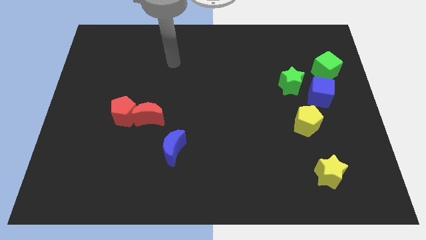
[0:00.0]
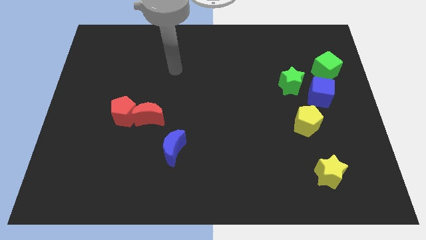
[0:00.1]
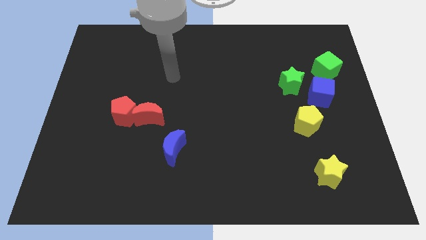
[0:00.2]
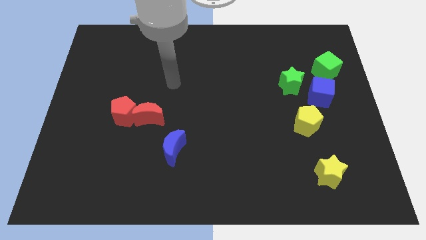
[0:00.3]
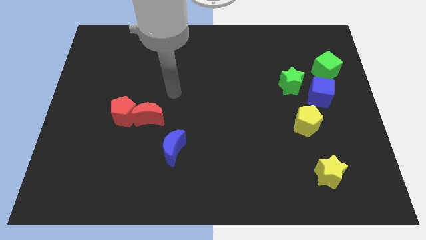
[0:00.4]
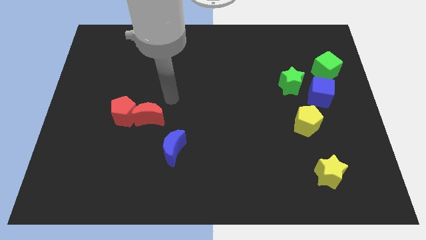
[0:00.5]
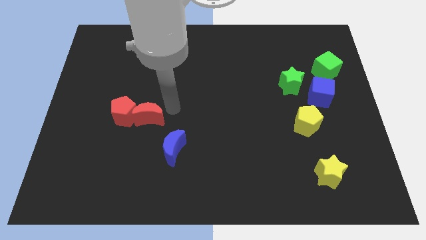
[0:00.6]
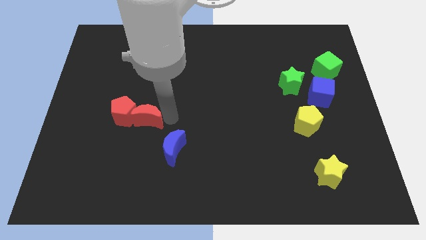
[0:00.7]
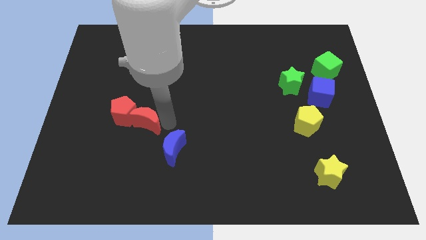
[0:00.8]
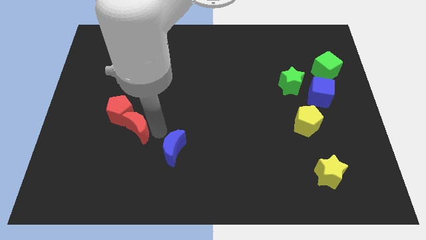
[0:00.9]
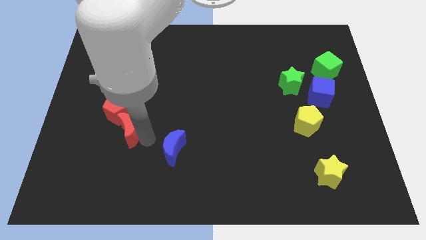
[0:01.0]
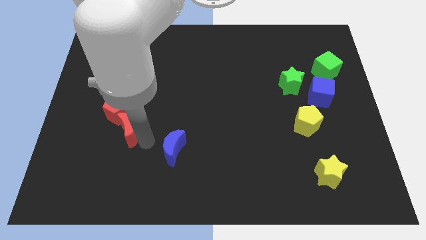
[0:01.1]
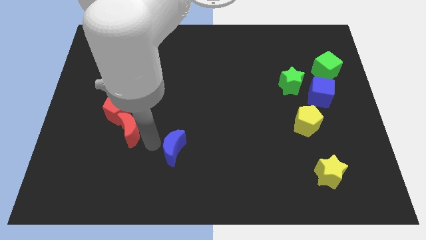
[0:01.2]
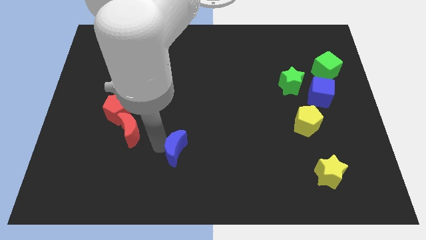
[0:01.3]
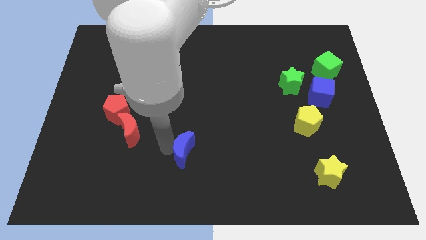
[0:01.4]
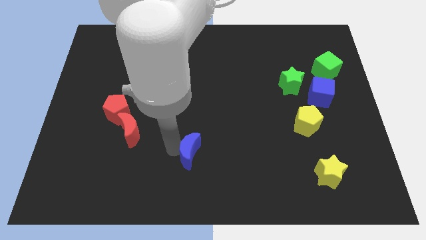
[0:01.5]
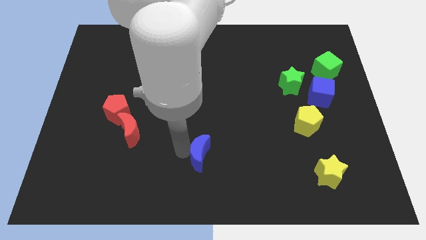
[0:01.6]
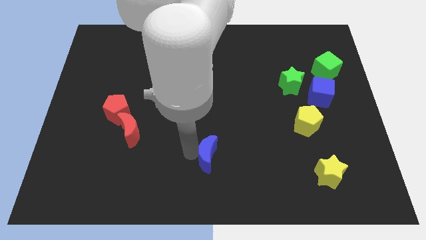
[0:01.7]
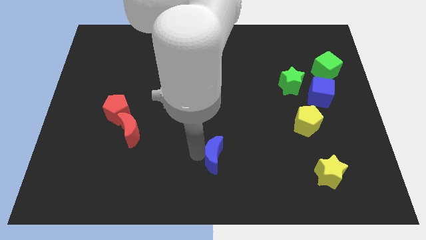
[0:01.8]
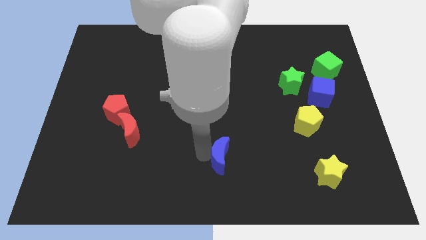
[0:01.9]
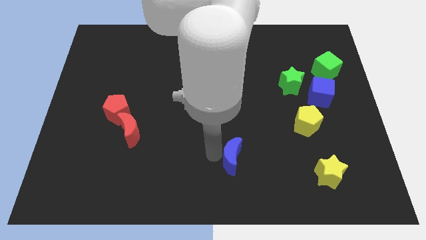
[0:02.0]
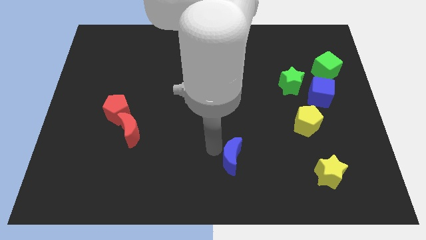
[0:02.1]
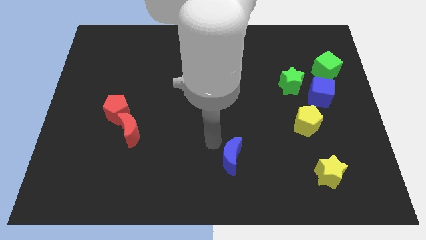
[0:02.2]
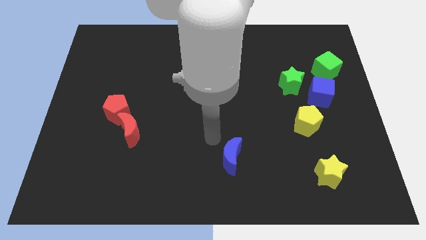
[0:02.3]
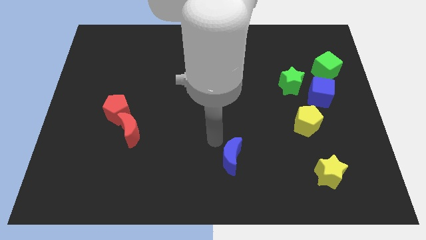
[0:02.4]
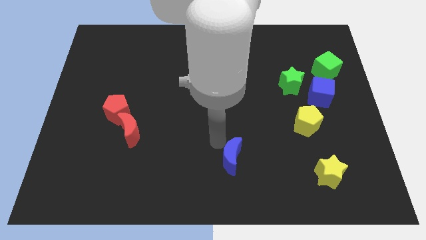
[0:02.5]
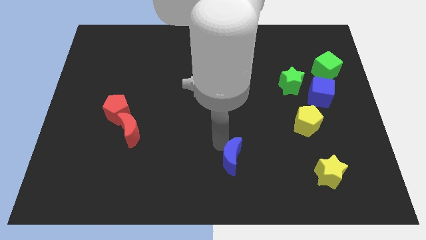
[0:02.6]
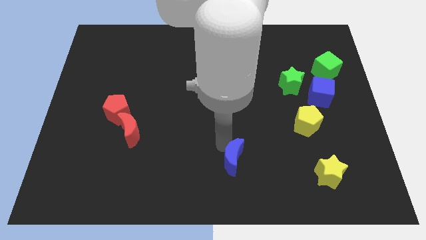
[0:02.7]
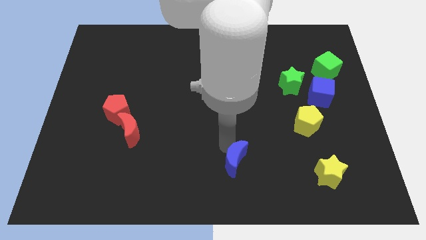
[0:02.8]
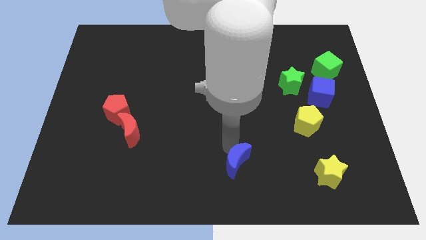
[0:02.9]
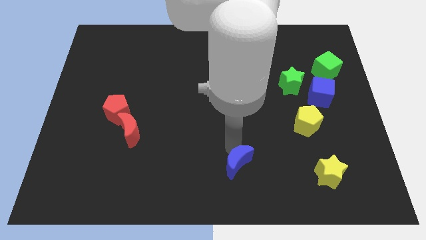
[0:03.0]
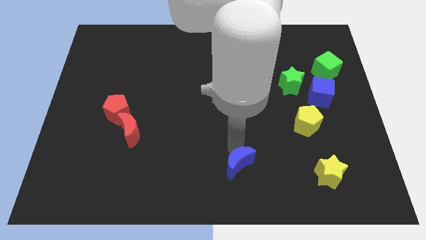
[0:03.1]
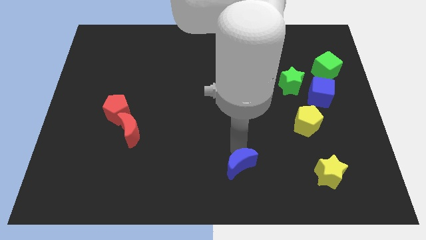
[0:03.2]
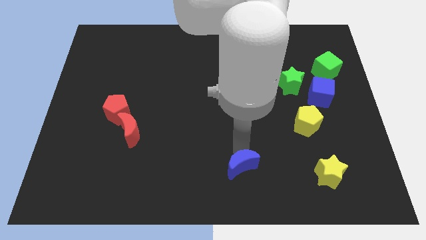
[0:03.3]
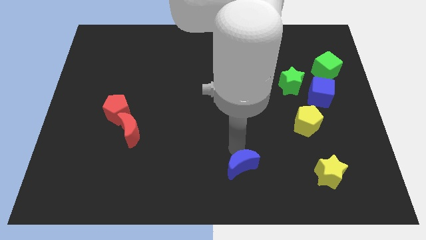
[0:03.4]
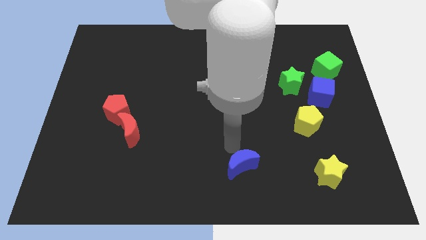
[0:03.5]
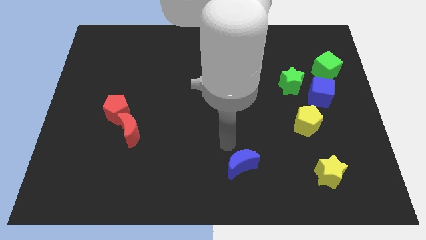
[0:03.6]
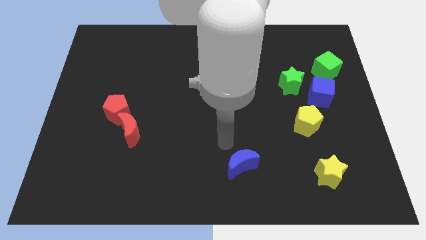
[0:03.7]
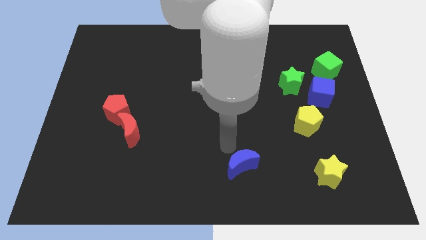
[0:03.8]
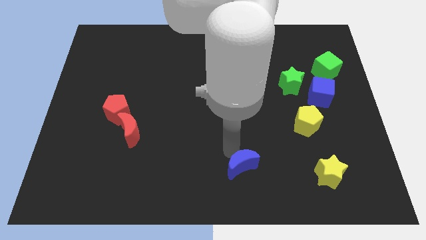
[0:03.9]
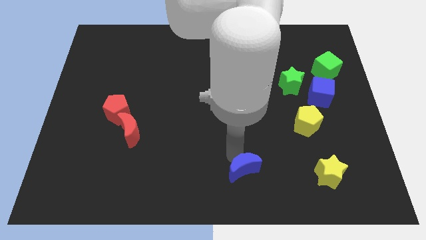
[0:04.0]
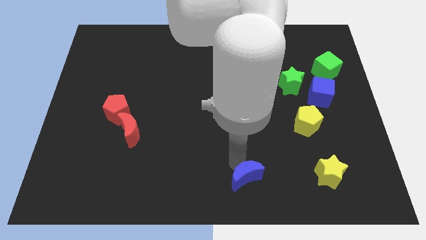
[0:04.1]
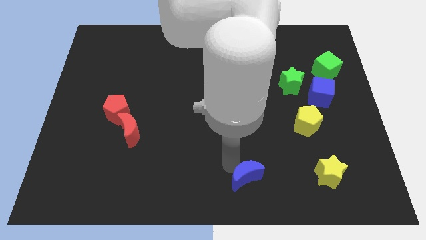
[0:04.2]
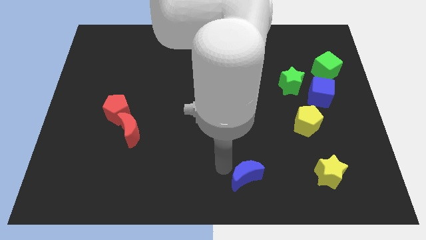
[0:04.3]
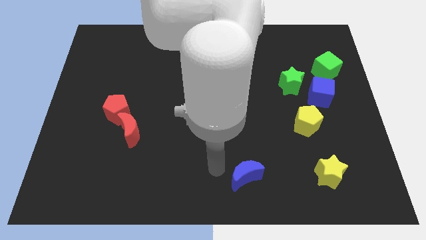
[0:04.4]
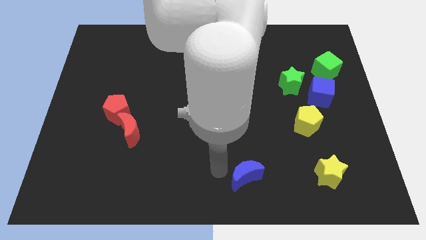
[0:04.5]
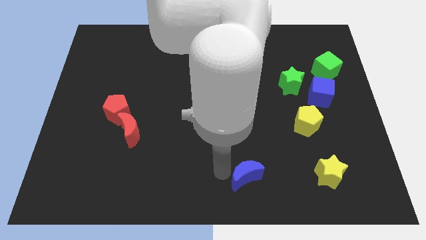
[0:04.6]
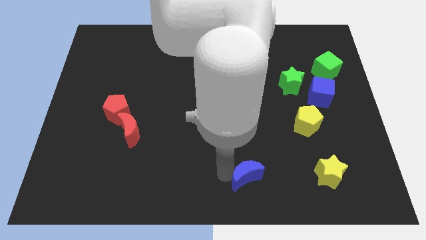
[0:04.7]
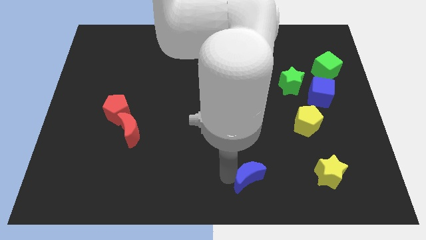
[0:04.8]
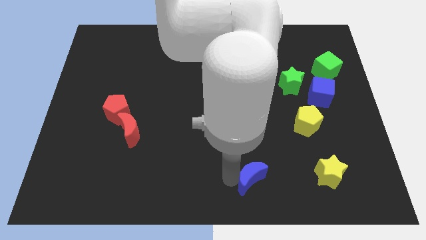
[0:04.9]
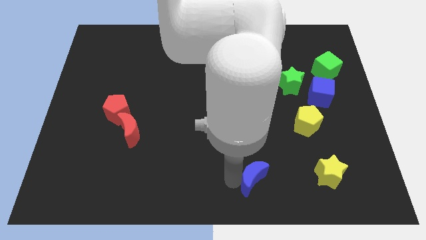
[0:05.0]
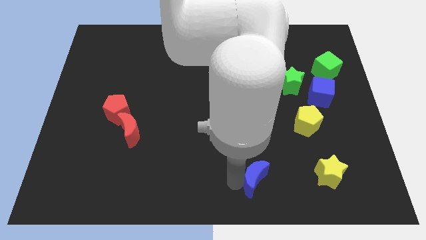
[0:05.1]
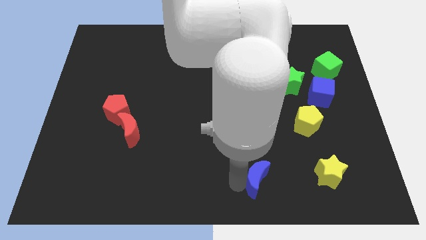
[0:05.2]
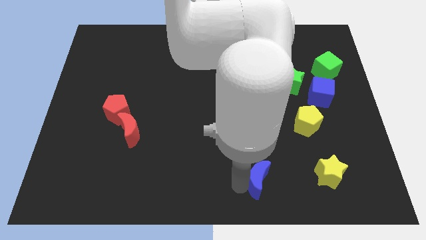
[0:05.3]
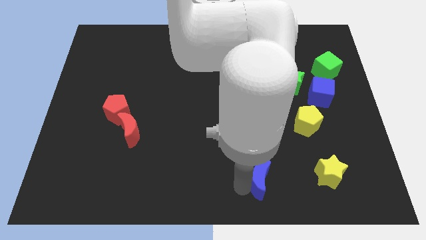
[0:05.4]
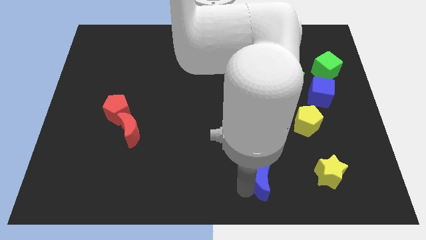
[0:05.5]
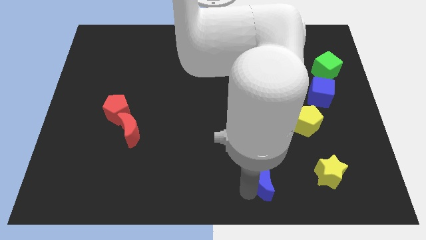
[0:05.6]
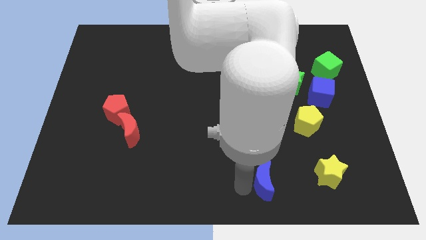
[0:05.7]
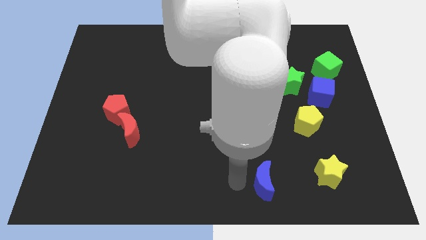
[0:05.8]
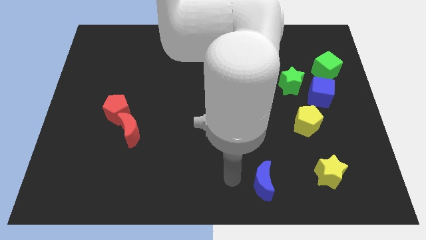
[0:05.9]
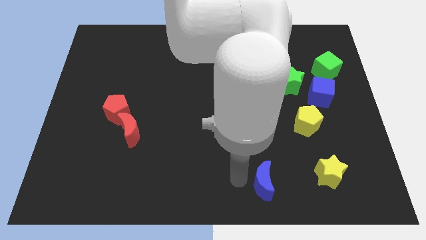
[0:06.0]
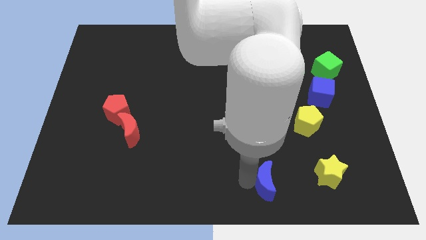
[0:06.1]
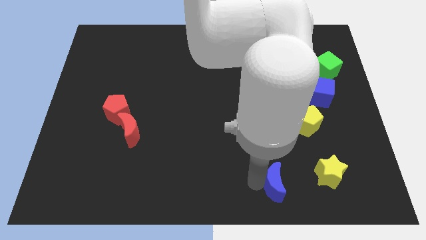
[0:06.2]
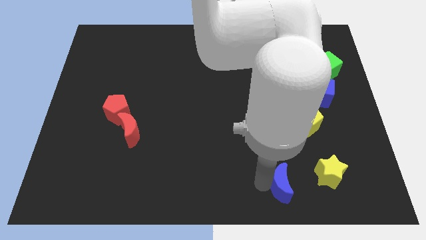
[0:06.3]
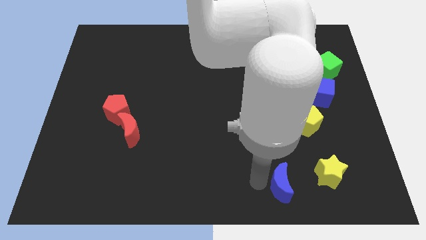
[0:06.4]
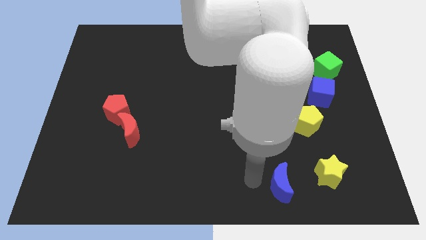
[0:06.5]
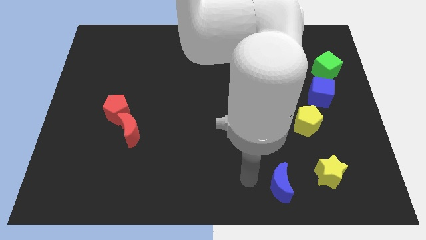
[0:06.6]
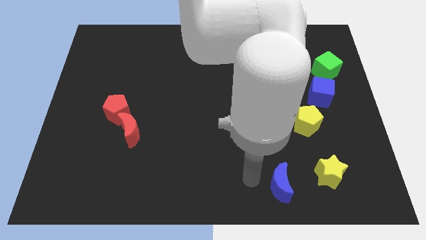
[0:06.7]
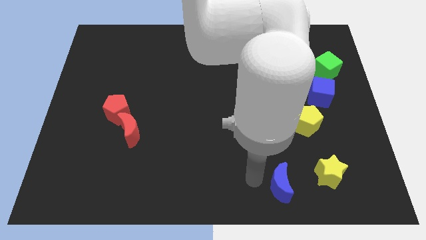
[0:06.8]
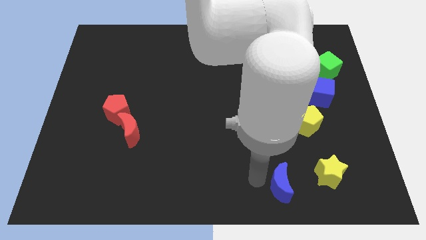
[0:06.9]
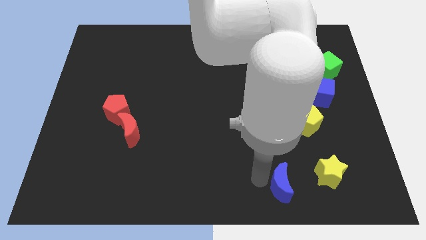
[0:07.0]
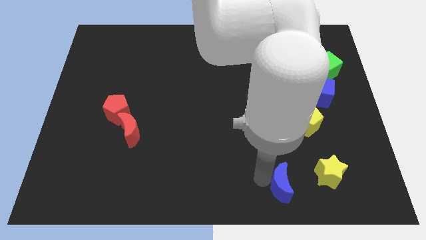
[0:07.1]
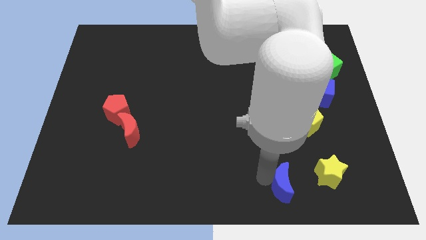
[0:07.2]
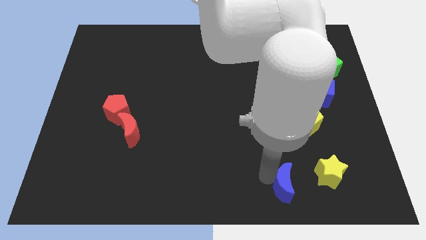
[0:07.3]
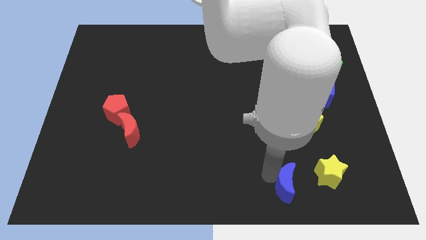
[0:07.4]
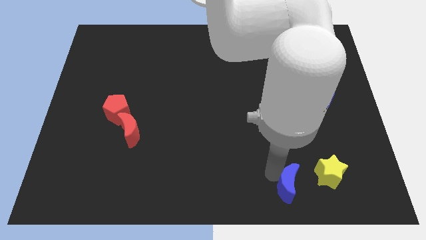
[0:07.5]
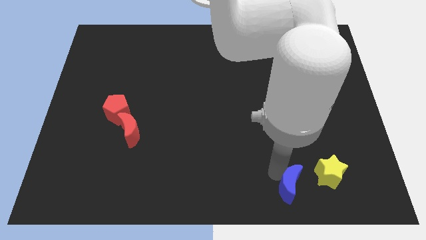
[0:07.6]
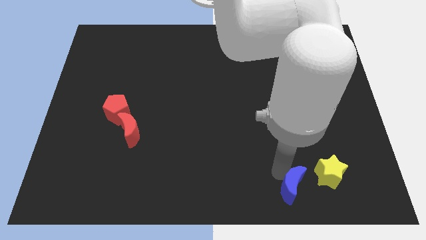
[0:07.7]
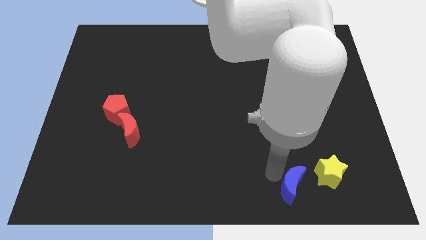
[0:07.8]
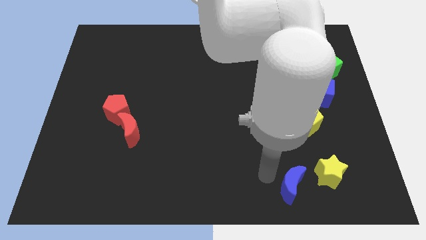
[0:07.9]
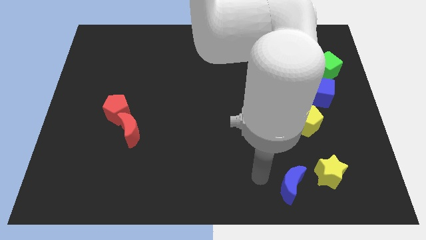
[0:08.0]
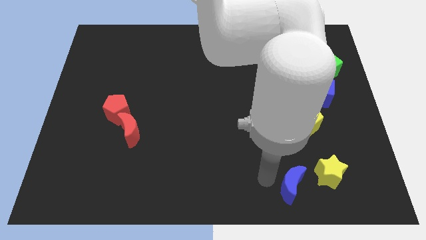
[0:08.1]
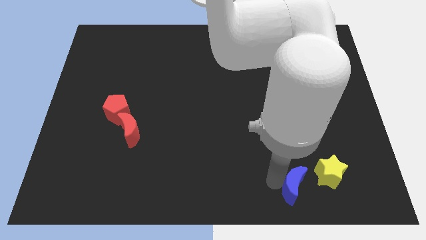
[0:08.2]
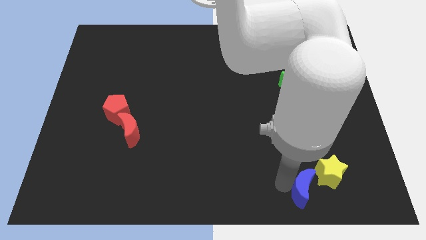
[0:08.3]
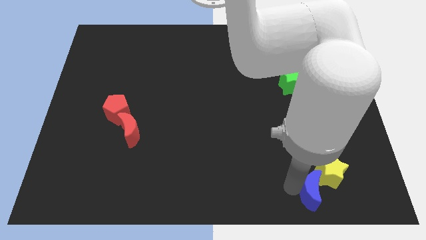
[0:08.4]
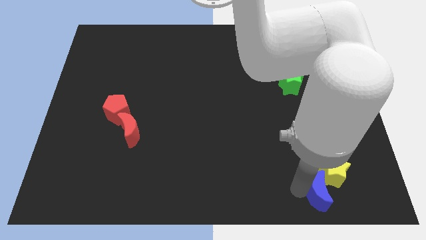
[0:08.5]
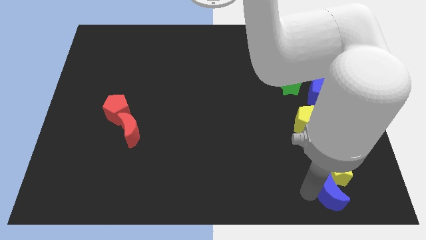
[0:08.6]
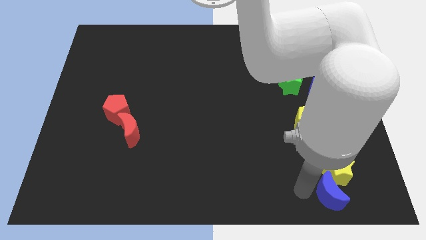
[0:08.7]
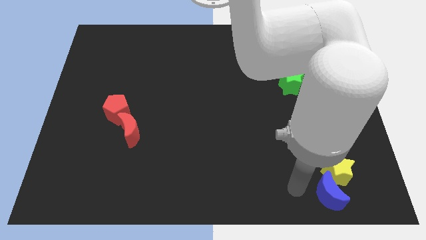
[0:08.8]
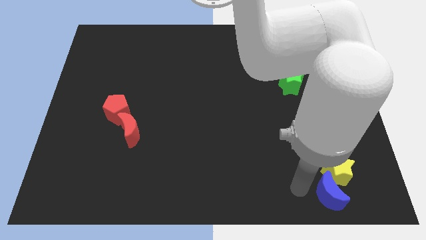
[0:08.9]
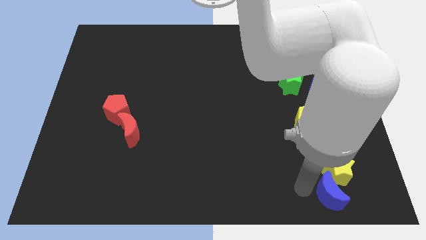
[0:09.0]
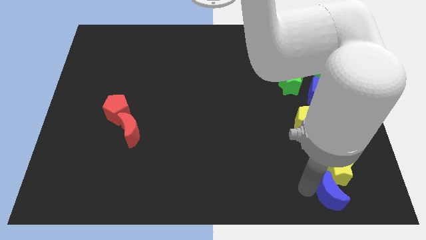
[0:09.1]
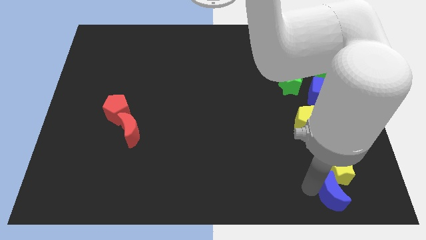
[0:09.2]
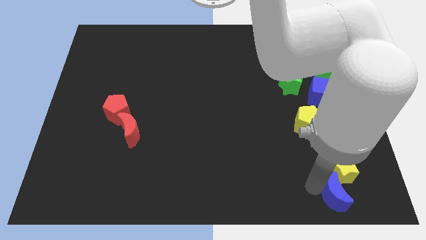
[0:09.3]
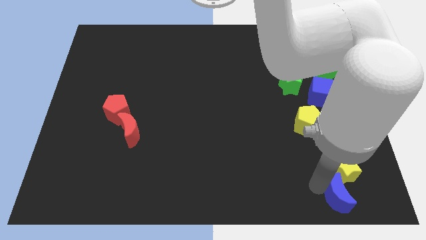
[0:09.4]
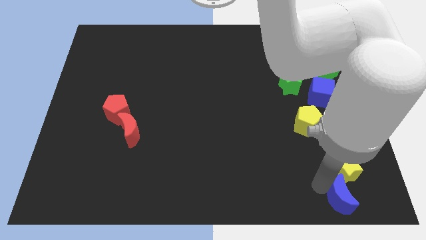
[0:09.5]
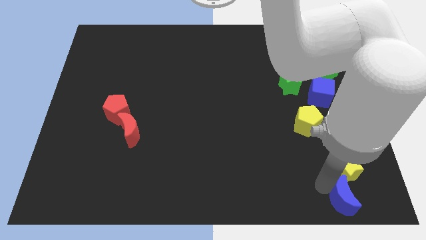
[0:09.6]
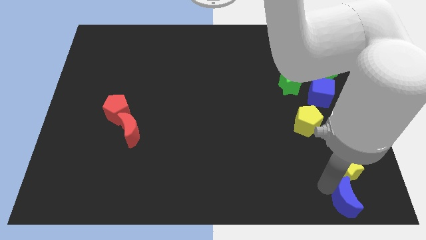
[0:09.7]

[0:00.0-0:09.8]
move the blue moon to the bottom right
